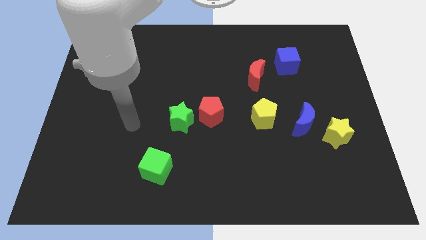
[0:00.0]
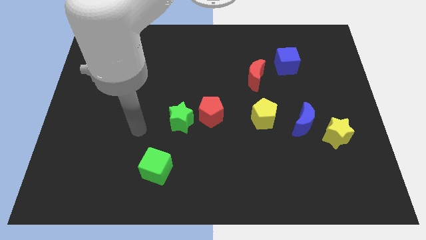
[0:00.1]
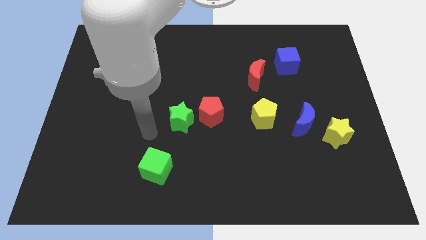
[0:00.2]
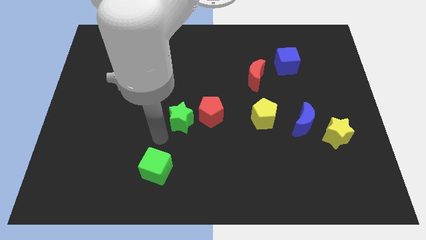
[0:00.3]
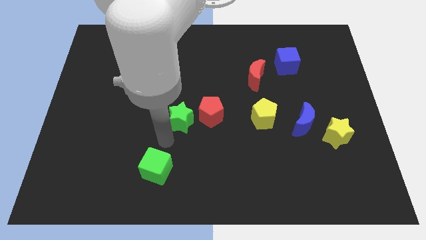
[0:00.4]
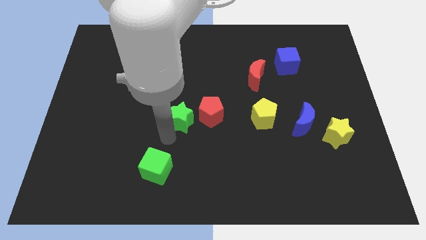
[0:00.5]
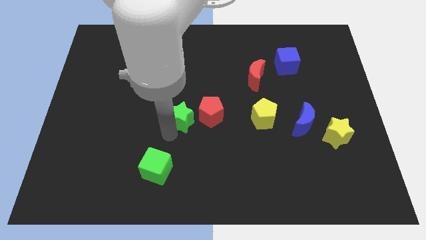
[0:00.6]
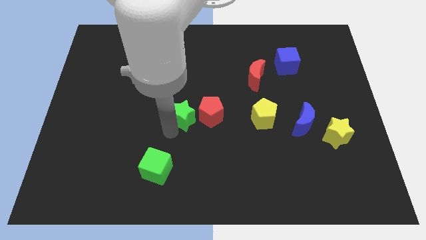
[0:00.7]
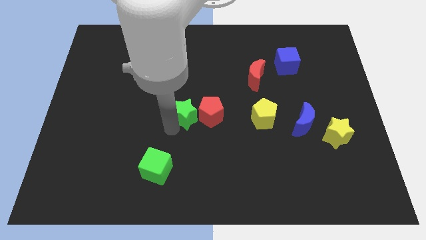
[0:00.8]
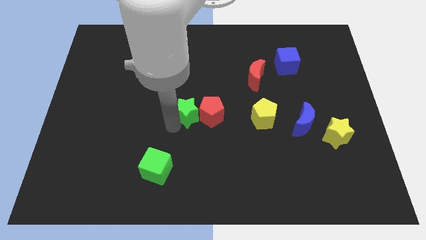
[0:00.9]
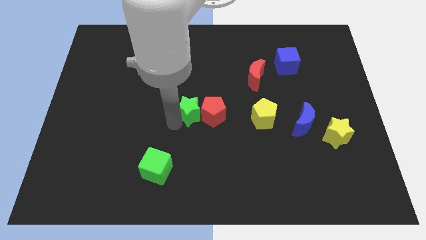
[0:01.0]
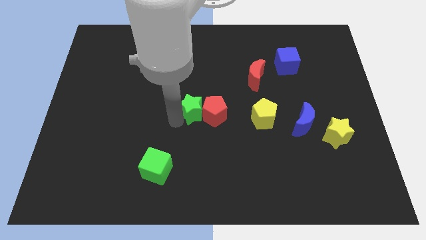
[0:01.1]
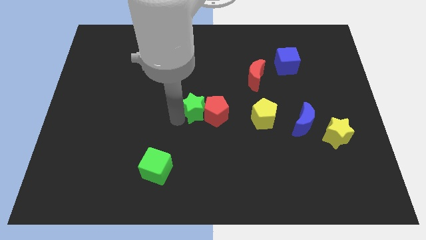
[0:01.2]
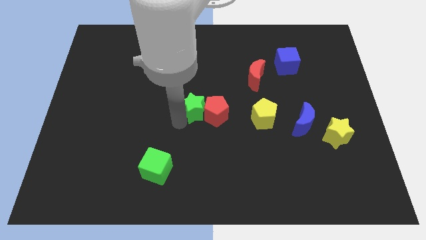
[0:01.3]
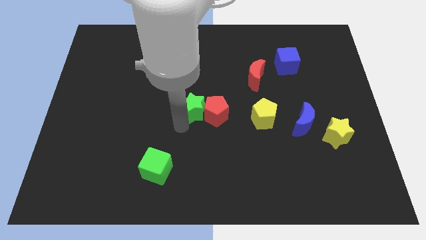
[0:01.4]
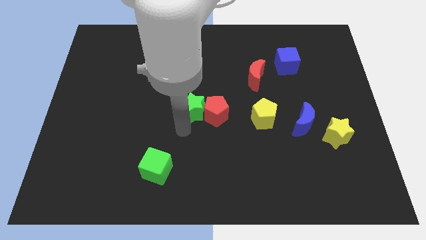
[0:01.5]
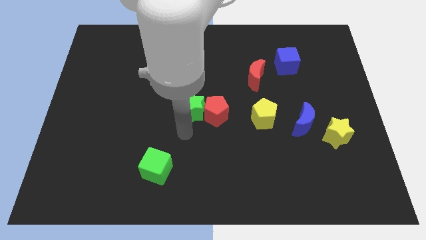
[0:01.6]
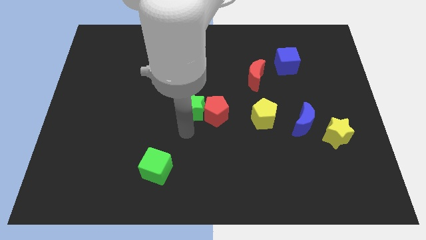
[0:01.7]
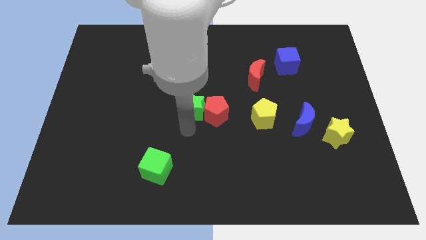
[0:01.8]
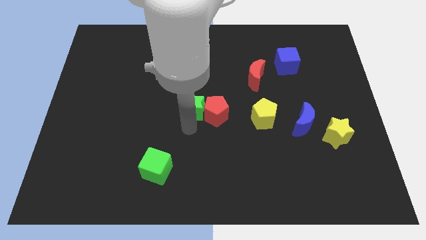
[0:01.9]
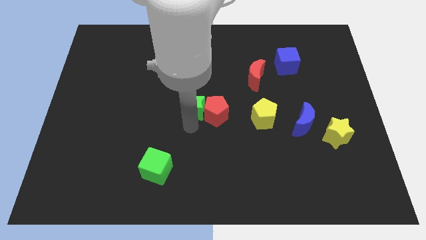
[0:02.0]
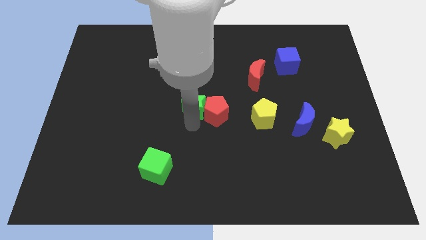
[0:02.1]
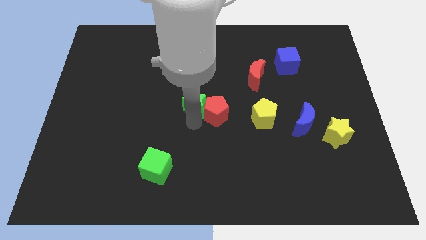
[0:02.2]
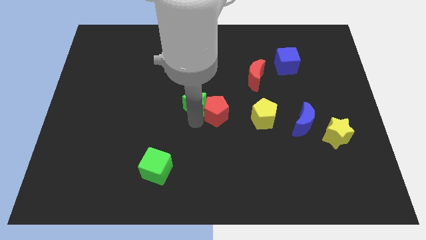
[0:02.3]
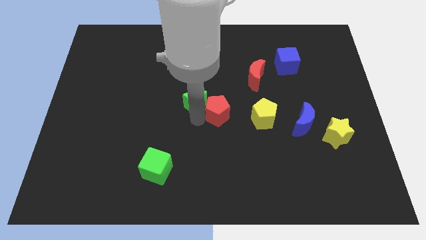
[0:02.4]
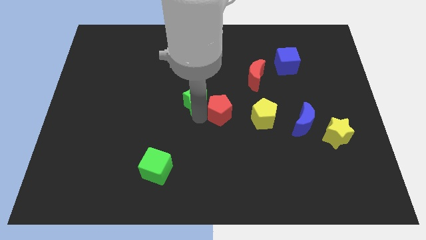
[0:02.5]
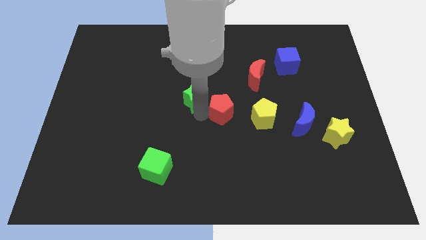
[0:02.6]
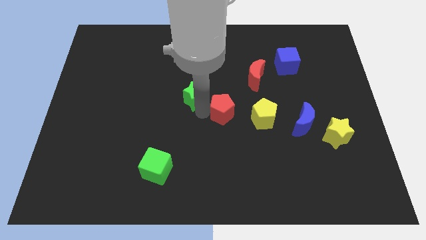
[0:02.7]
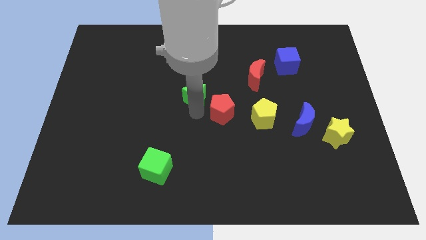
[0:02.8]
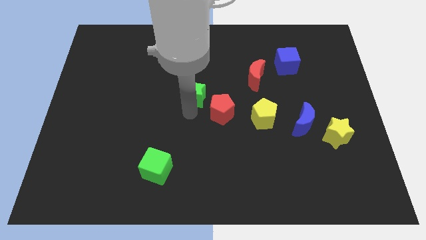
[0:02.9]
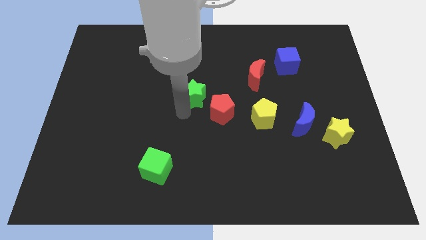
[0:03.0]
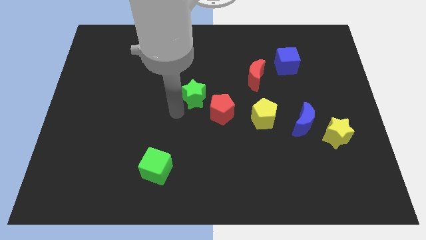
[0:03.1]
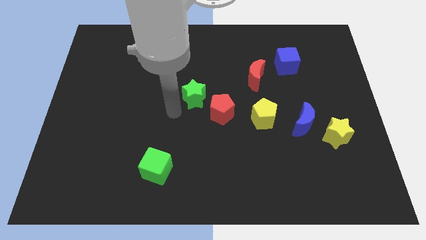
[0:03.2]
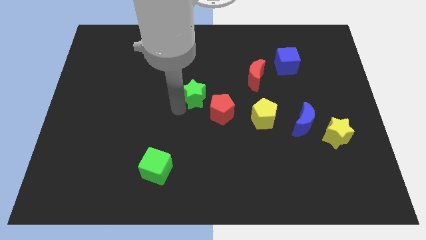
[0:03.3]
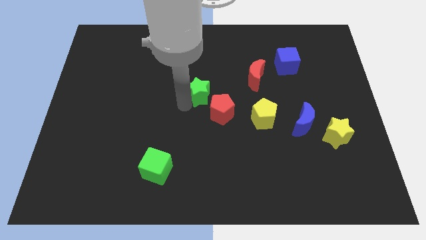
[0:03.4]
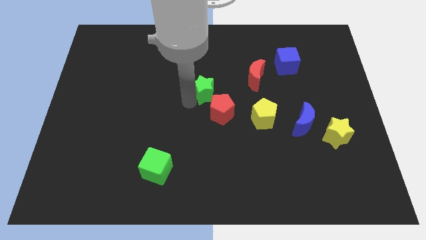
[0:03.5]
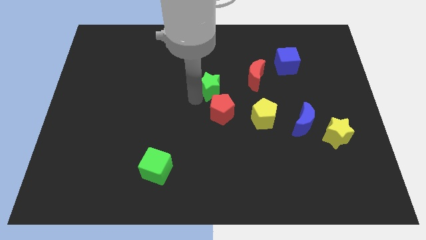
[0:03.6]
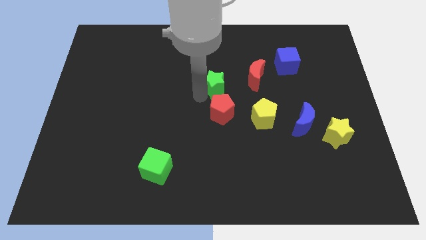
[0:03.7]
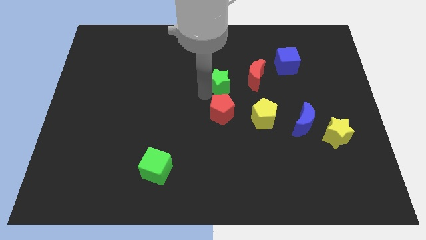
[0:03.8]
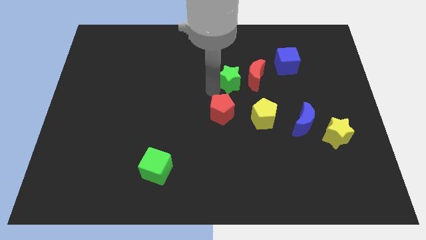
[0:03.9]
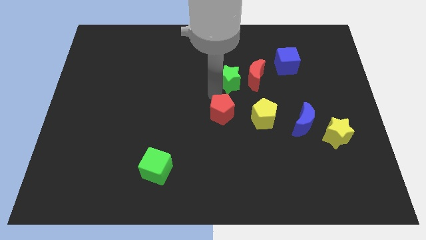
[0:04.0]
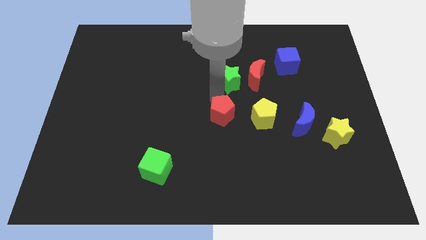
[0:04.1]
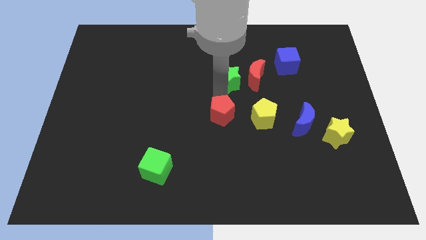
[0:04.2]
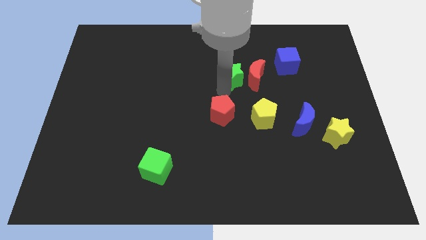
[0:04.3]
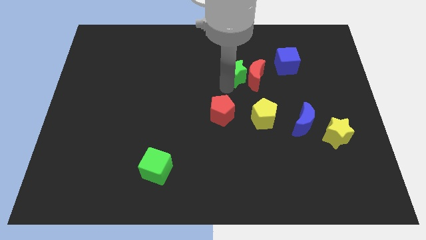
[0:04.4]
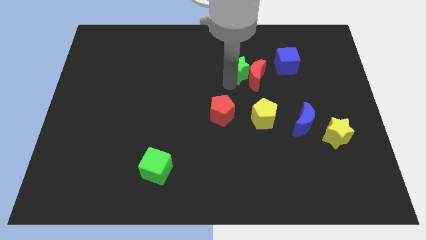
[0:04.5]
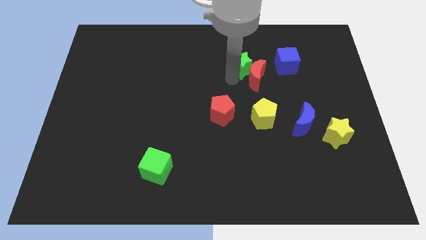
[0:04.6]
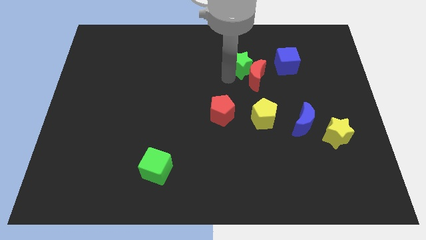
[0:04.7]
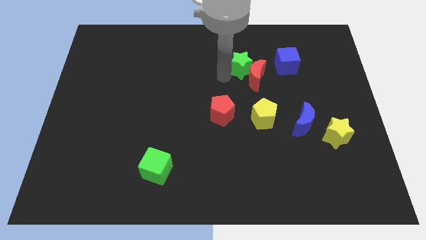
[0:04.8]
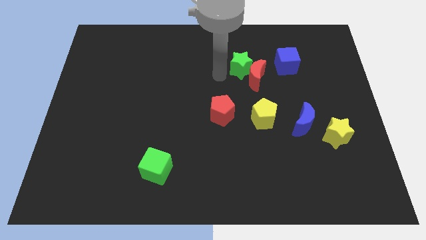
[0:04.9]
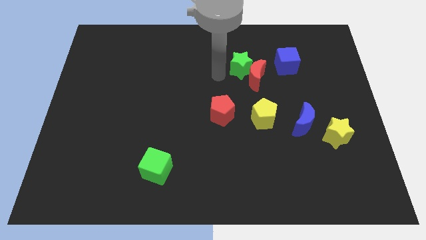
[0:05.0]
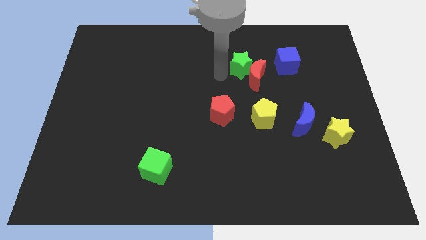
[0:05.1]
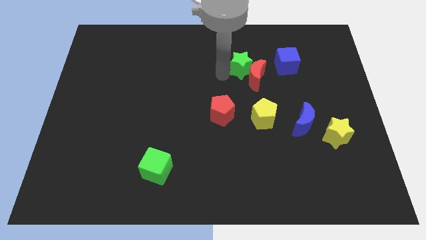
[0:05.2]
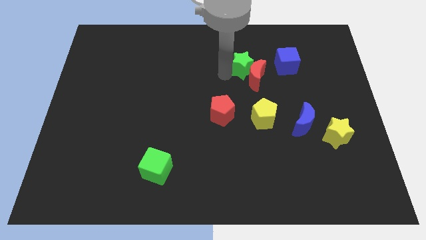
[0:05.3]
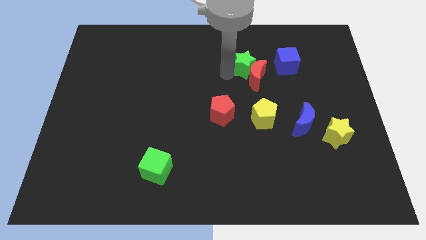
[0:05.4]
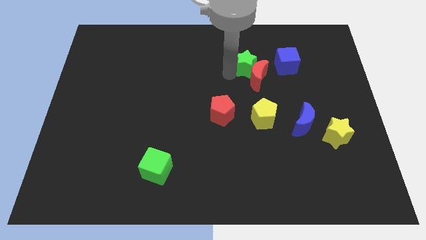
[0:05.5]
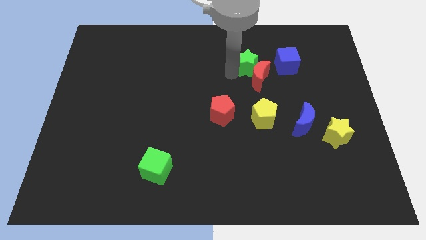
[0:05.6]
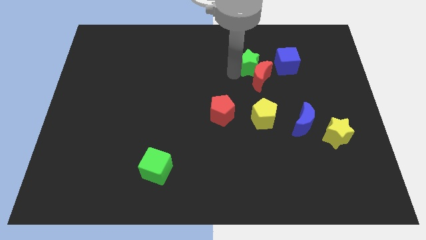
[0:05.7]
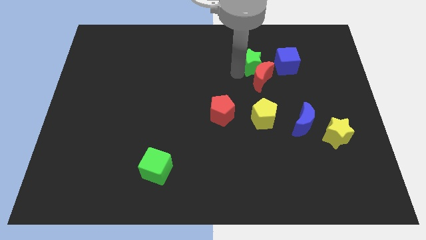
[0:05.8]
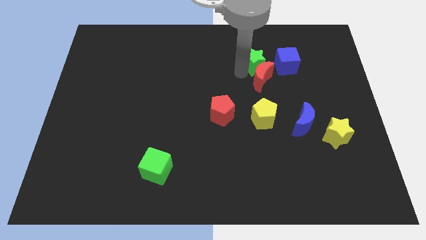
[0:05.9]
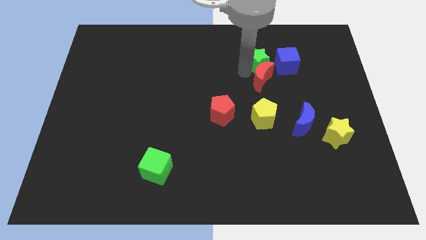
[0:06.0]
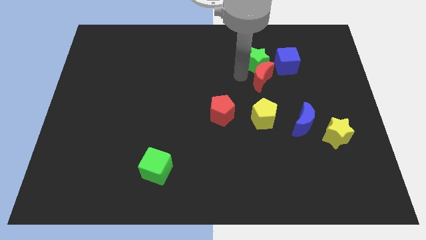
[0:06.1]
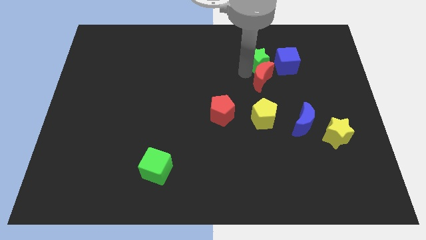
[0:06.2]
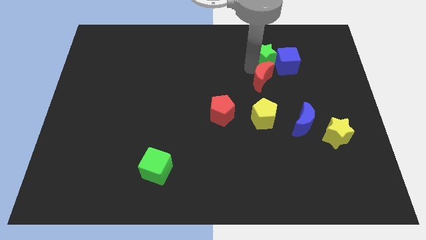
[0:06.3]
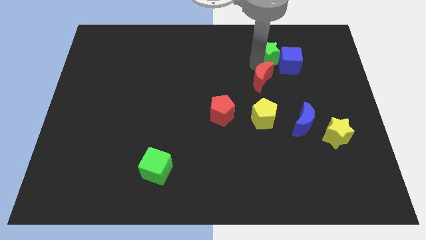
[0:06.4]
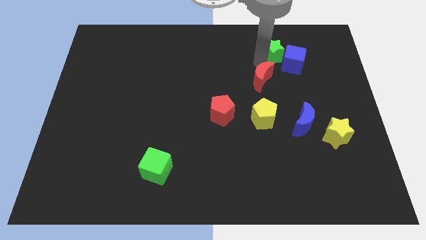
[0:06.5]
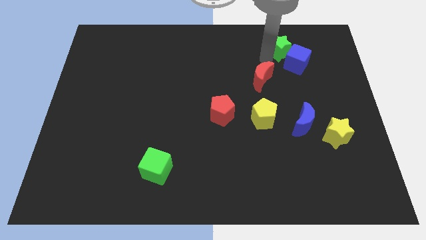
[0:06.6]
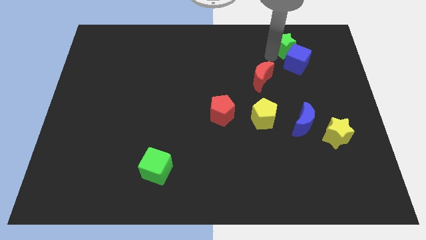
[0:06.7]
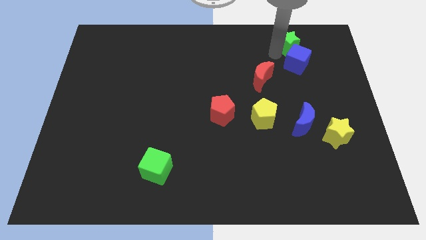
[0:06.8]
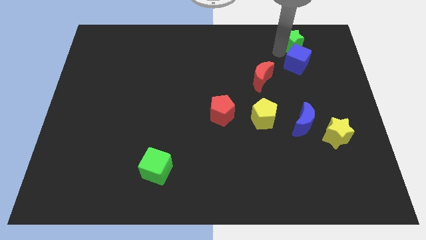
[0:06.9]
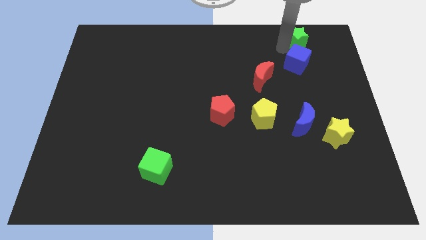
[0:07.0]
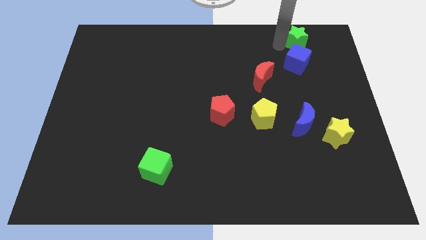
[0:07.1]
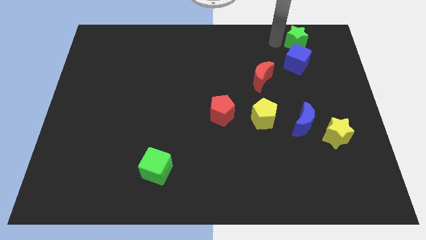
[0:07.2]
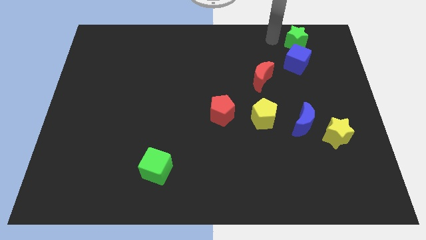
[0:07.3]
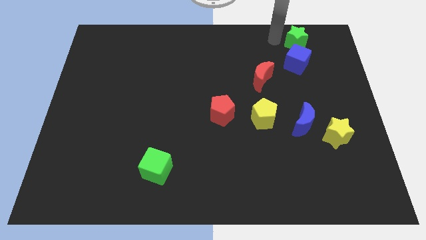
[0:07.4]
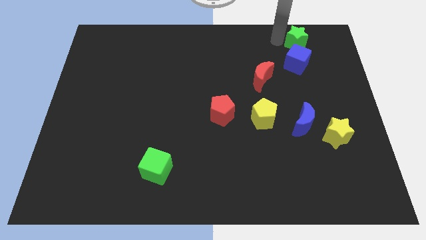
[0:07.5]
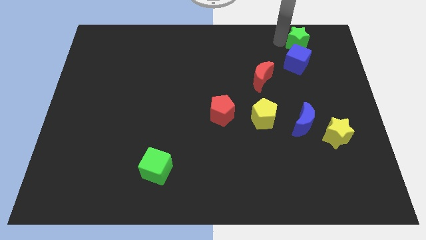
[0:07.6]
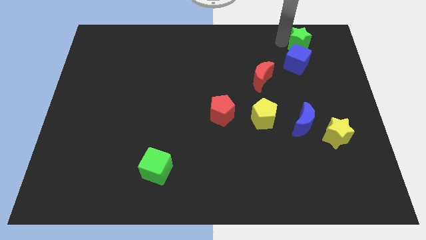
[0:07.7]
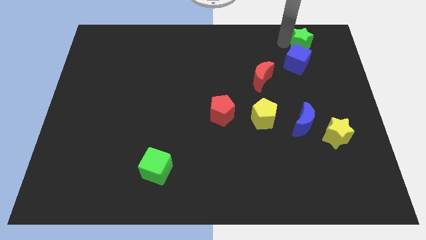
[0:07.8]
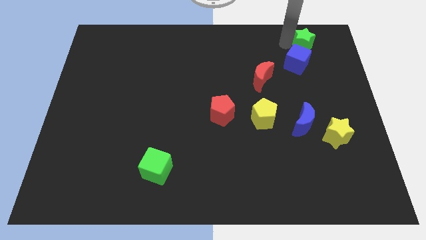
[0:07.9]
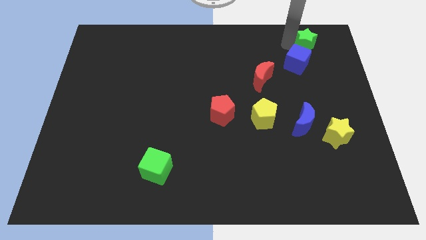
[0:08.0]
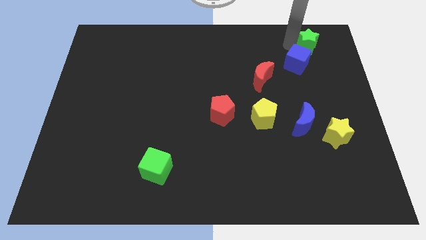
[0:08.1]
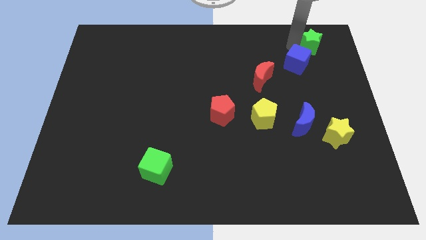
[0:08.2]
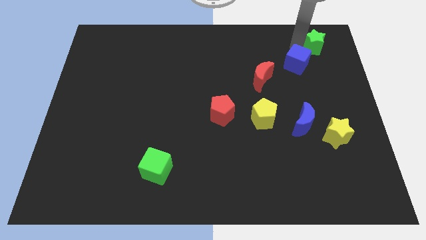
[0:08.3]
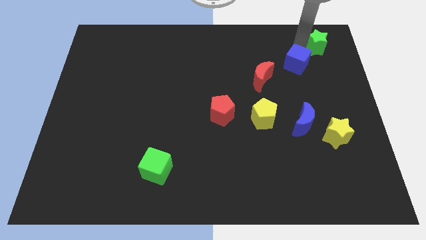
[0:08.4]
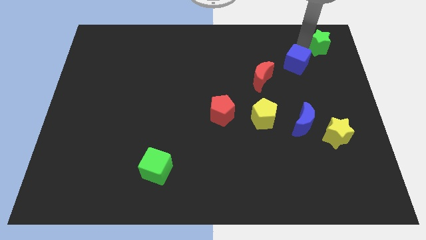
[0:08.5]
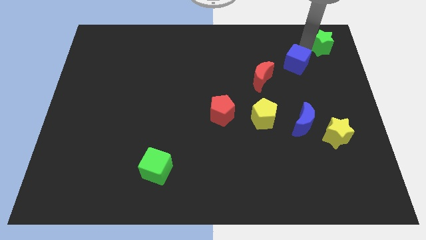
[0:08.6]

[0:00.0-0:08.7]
slide the green star to the top right corner
